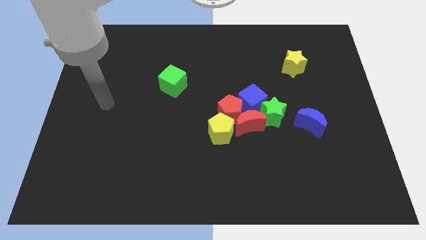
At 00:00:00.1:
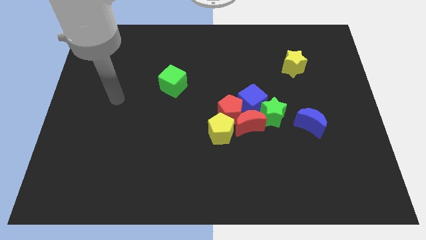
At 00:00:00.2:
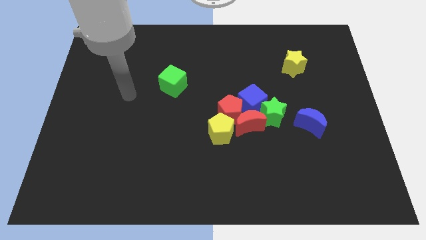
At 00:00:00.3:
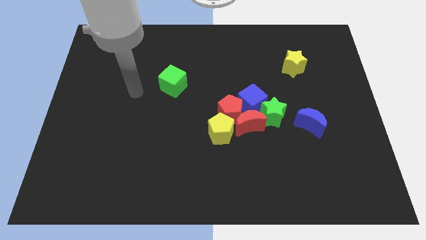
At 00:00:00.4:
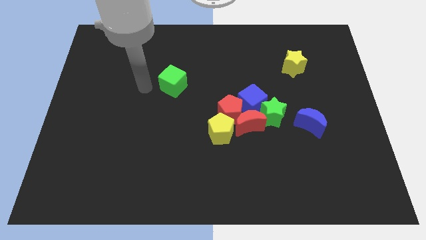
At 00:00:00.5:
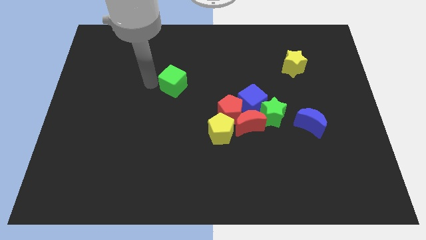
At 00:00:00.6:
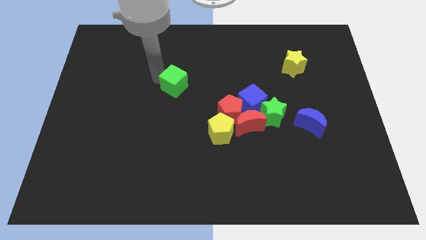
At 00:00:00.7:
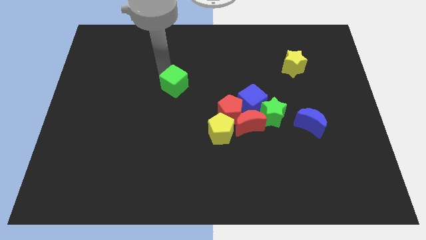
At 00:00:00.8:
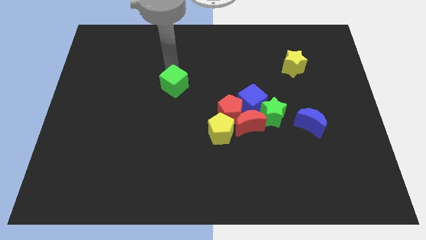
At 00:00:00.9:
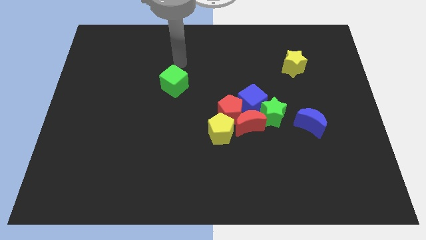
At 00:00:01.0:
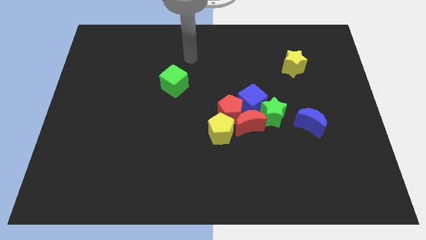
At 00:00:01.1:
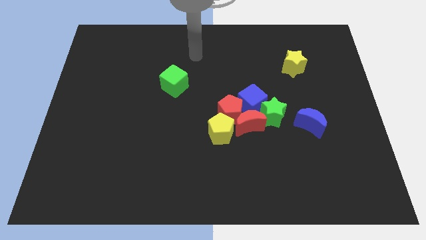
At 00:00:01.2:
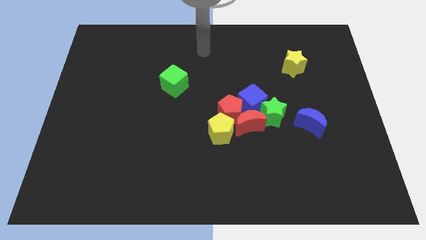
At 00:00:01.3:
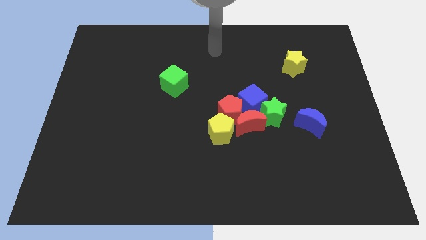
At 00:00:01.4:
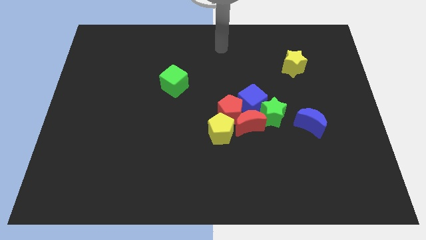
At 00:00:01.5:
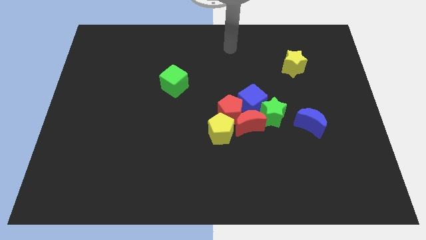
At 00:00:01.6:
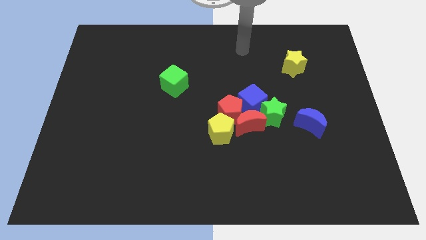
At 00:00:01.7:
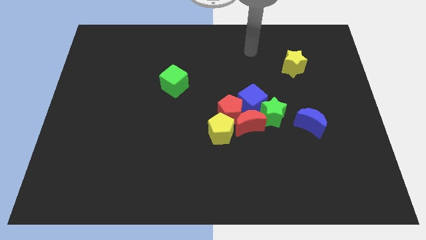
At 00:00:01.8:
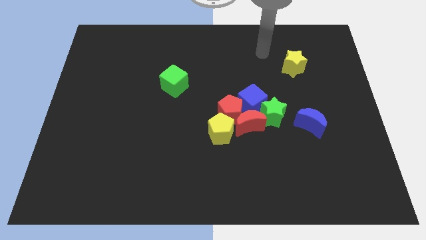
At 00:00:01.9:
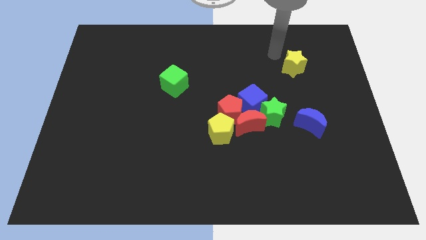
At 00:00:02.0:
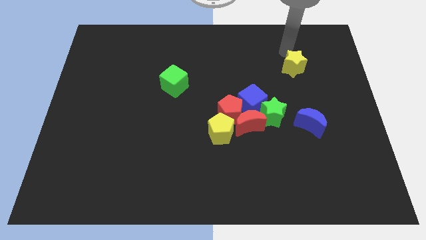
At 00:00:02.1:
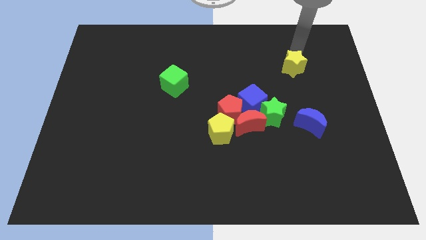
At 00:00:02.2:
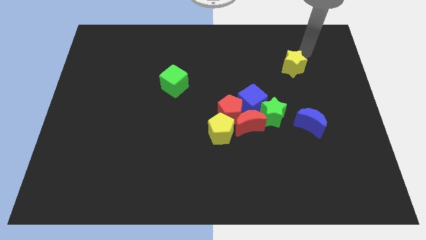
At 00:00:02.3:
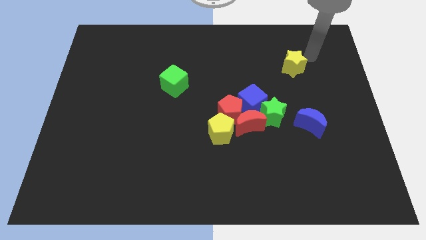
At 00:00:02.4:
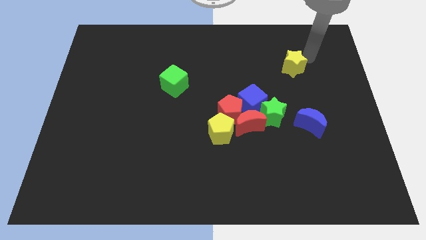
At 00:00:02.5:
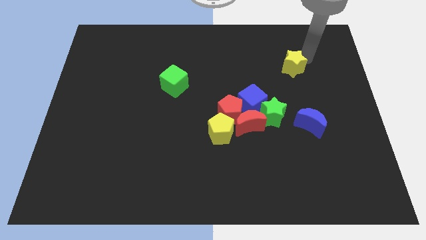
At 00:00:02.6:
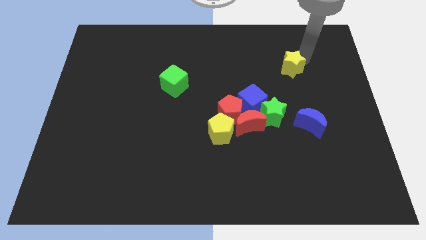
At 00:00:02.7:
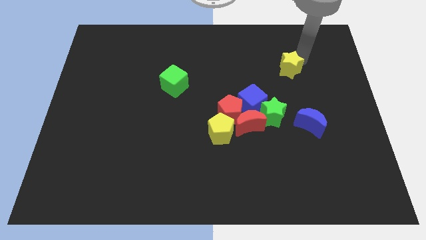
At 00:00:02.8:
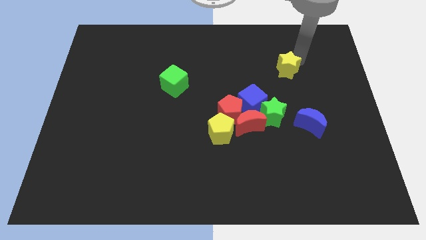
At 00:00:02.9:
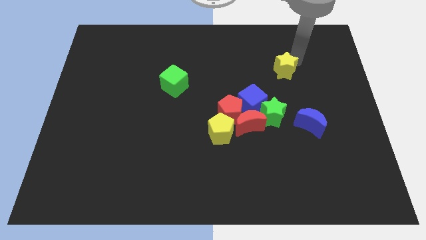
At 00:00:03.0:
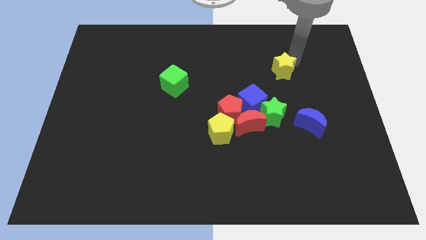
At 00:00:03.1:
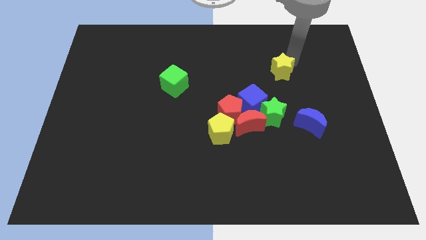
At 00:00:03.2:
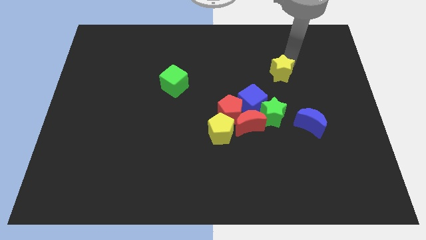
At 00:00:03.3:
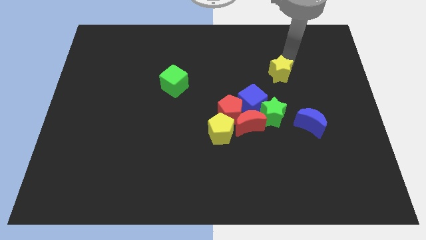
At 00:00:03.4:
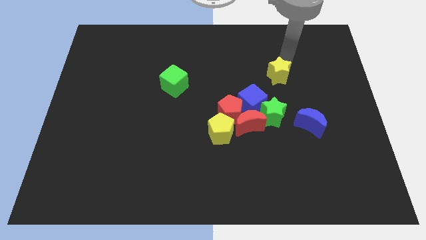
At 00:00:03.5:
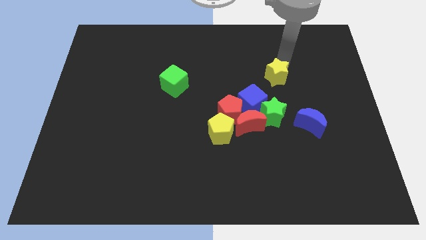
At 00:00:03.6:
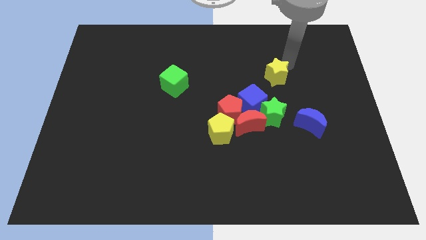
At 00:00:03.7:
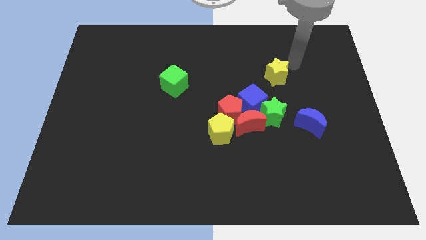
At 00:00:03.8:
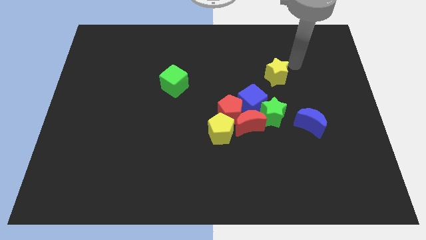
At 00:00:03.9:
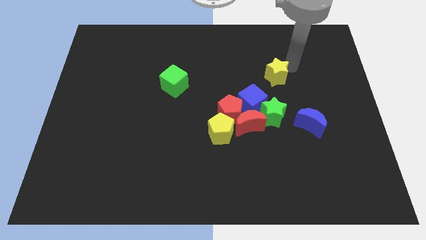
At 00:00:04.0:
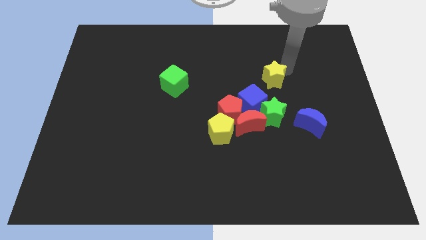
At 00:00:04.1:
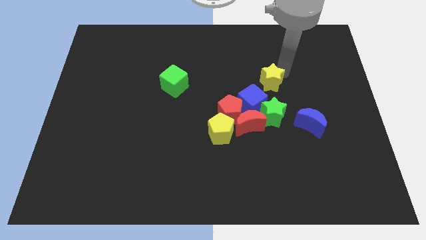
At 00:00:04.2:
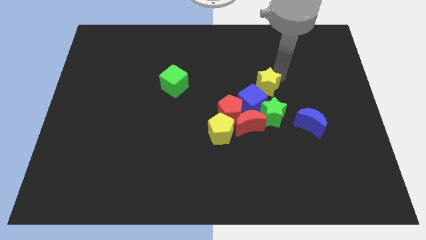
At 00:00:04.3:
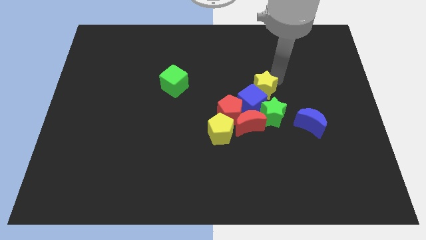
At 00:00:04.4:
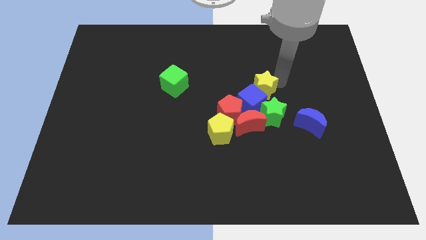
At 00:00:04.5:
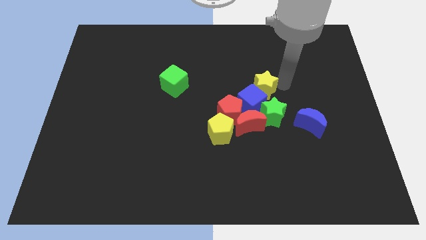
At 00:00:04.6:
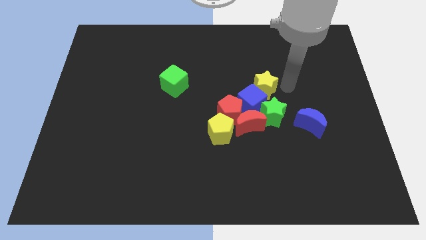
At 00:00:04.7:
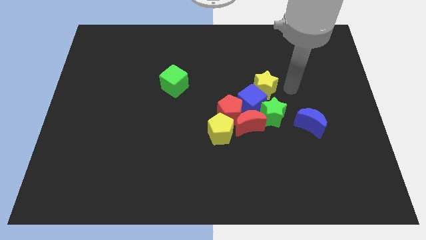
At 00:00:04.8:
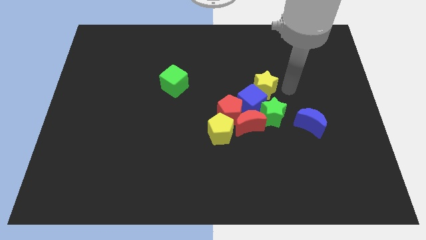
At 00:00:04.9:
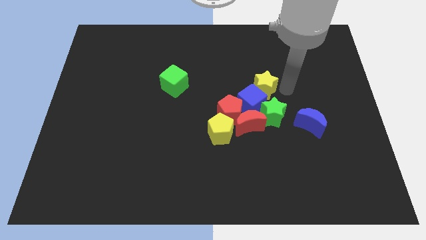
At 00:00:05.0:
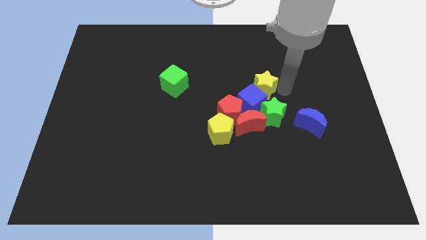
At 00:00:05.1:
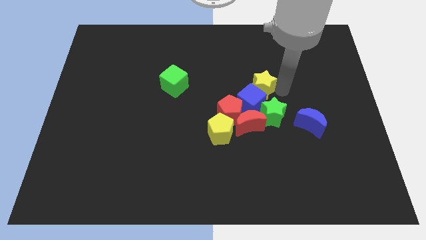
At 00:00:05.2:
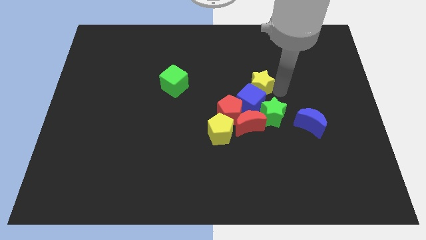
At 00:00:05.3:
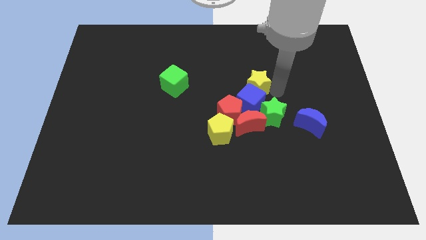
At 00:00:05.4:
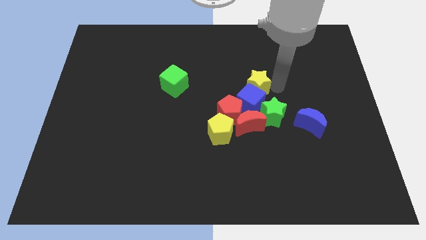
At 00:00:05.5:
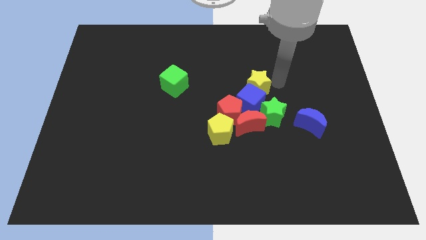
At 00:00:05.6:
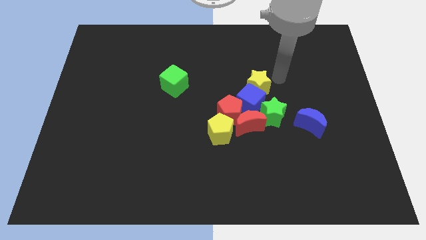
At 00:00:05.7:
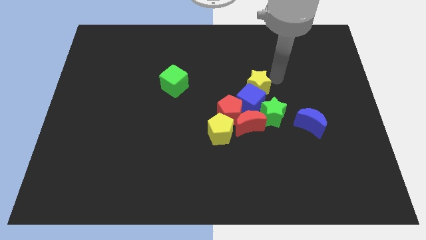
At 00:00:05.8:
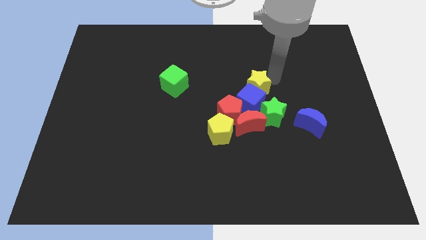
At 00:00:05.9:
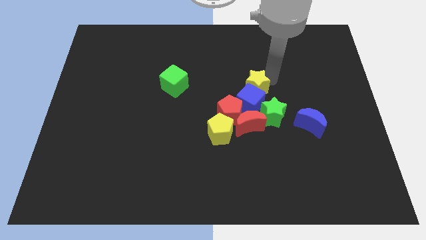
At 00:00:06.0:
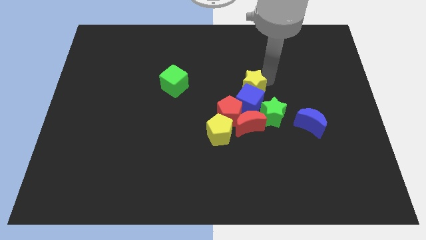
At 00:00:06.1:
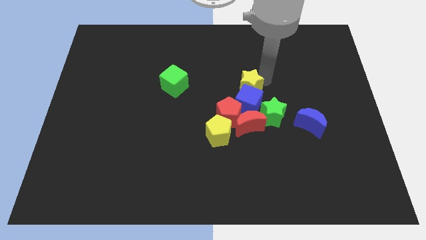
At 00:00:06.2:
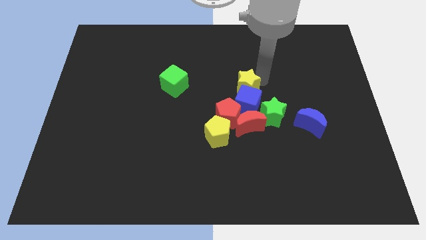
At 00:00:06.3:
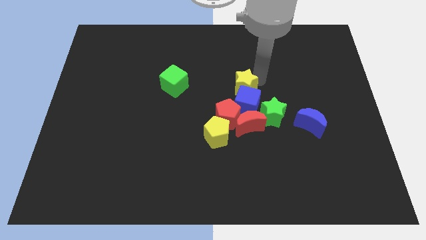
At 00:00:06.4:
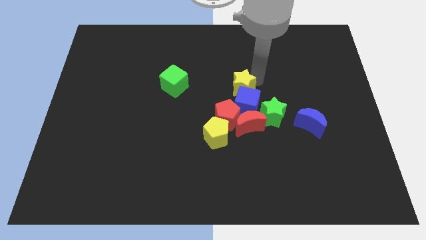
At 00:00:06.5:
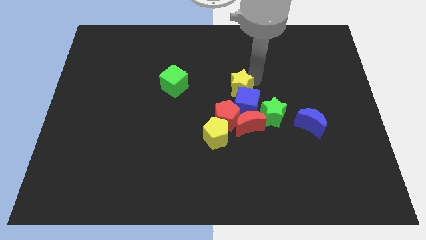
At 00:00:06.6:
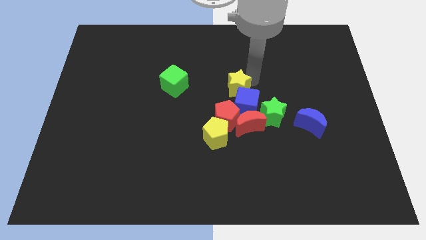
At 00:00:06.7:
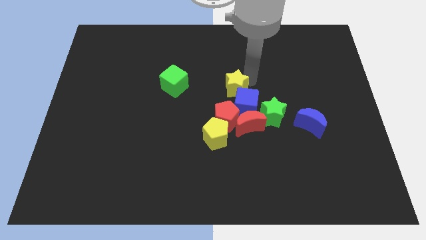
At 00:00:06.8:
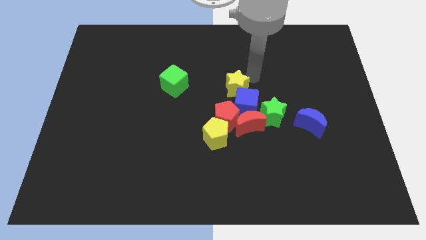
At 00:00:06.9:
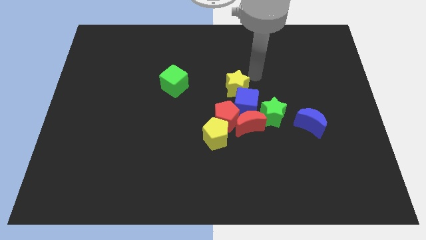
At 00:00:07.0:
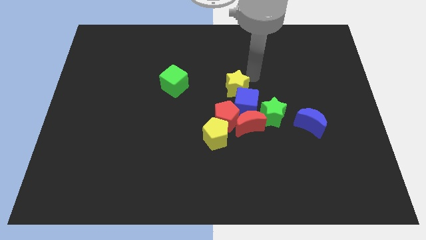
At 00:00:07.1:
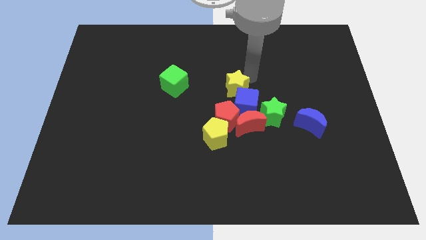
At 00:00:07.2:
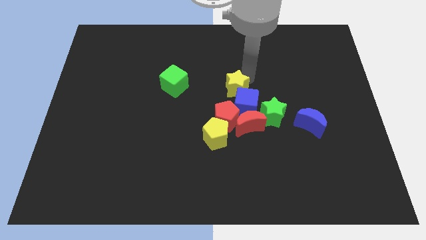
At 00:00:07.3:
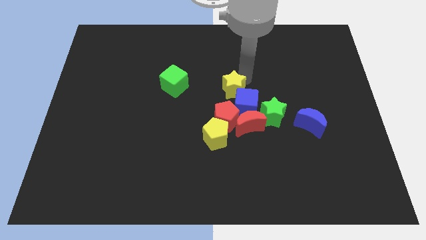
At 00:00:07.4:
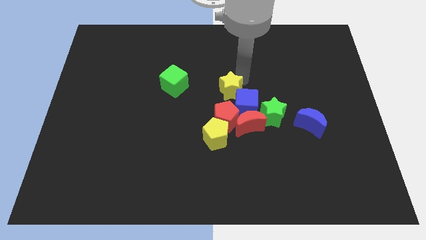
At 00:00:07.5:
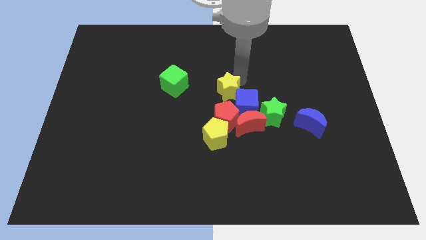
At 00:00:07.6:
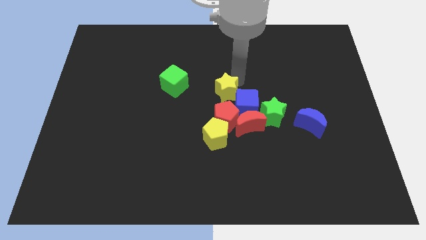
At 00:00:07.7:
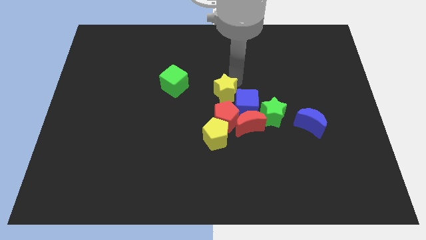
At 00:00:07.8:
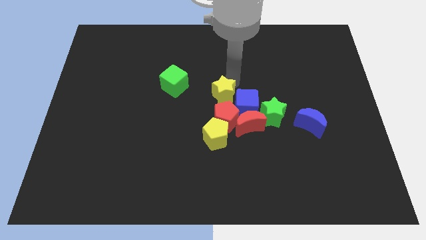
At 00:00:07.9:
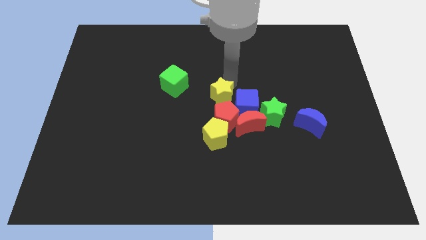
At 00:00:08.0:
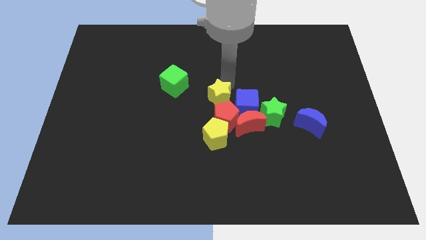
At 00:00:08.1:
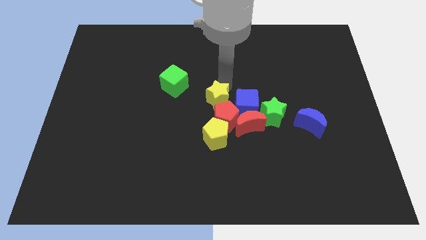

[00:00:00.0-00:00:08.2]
slide the yellow star diagonally down and left

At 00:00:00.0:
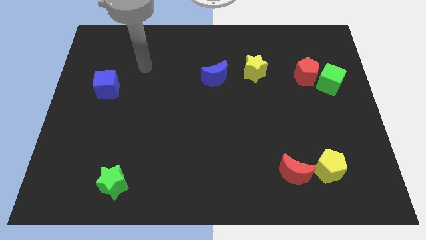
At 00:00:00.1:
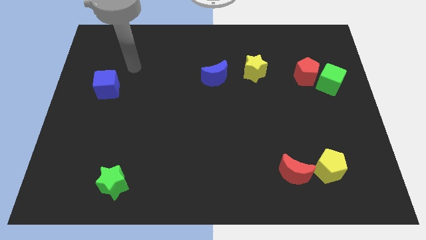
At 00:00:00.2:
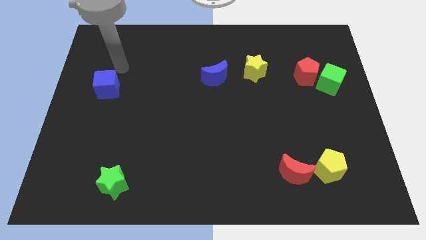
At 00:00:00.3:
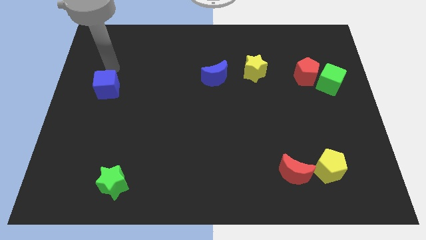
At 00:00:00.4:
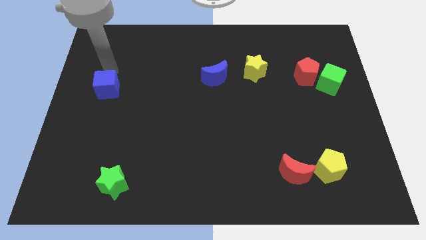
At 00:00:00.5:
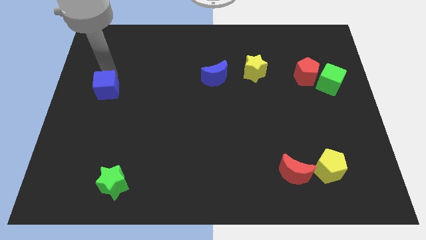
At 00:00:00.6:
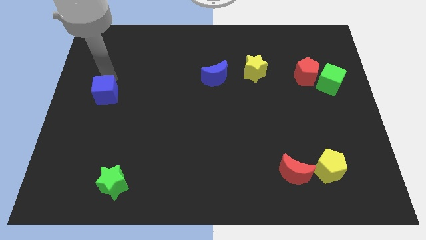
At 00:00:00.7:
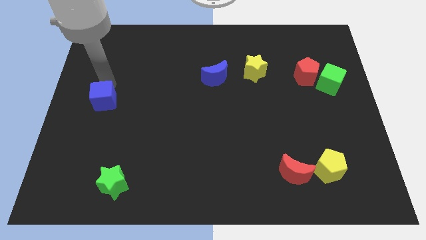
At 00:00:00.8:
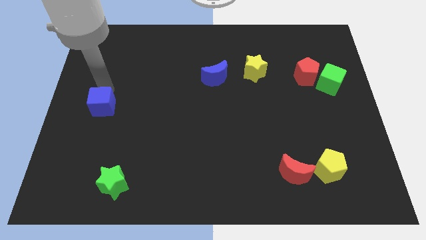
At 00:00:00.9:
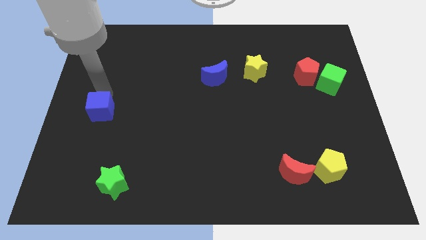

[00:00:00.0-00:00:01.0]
push the blue cube down a little bit
